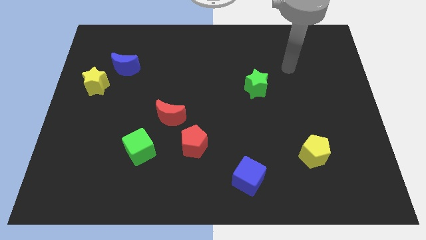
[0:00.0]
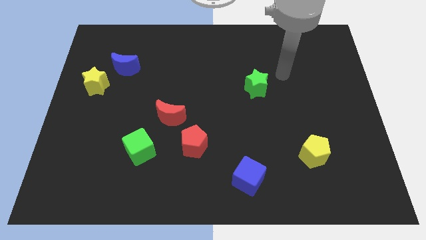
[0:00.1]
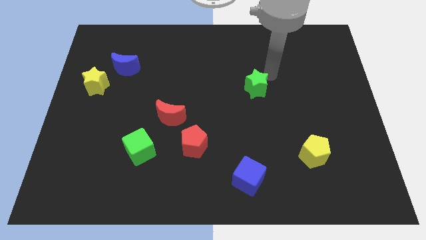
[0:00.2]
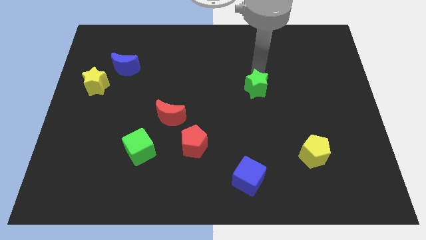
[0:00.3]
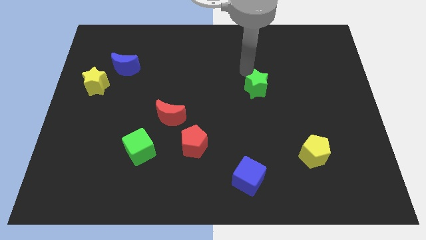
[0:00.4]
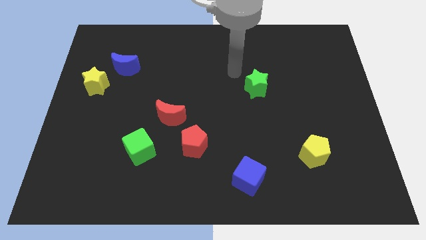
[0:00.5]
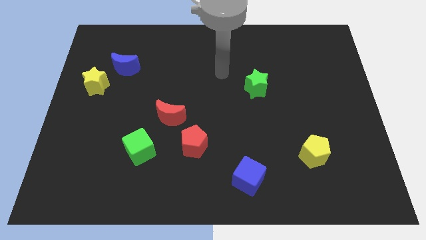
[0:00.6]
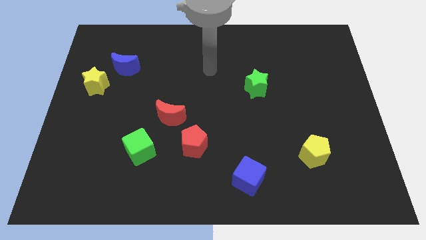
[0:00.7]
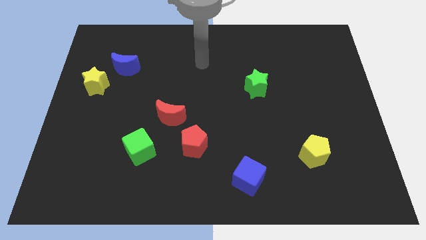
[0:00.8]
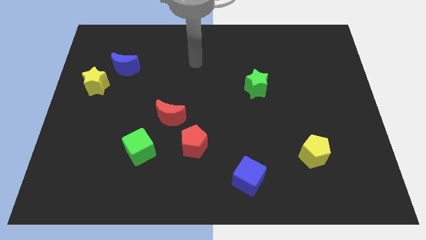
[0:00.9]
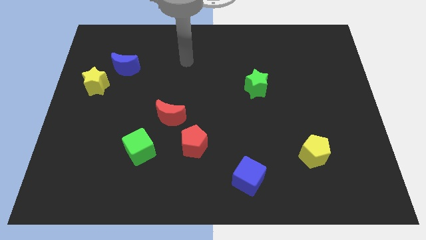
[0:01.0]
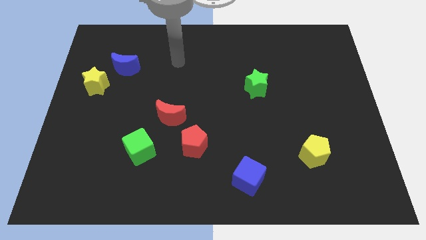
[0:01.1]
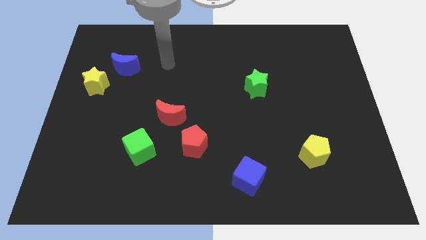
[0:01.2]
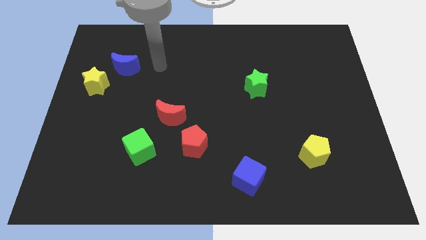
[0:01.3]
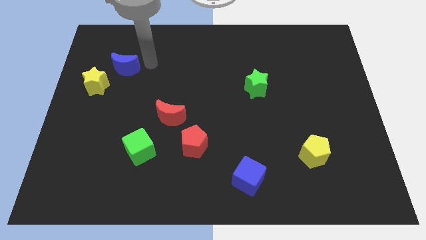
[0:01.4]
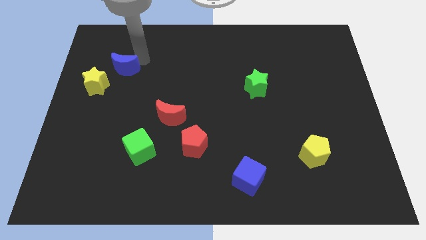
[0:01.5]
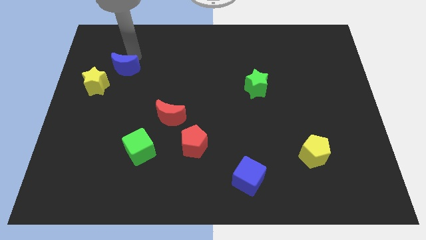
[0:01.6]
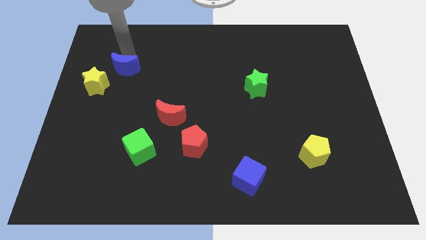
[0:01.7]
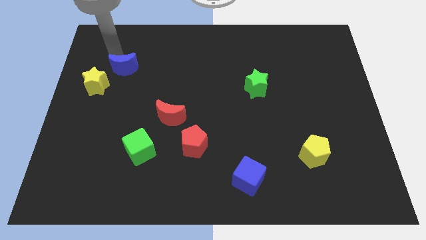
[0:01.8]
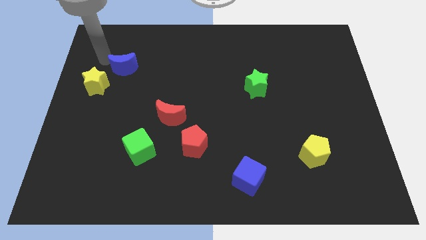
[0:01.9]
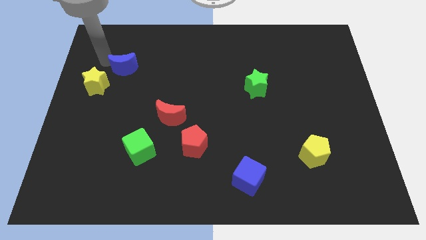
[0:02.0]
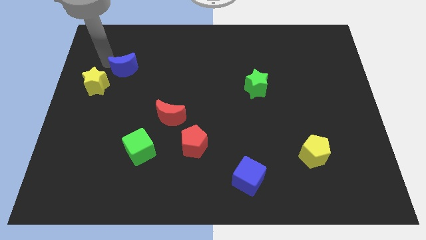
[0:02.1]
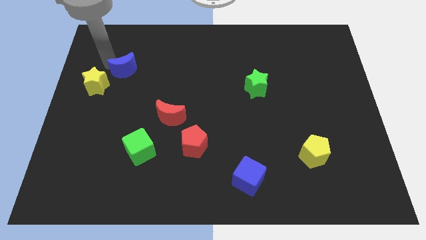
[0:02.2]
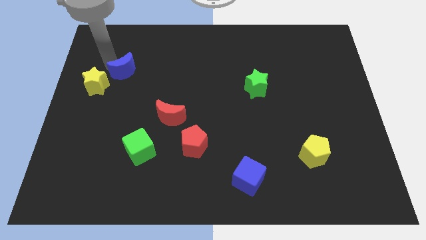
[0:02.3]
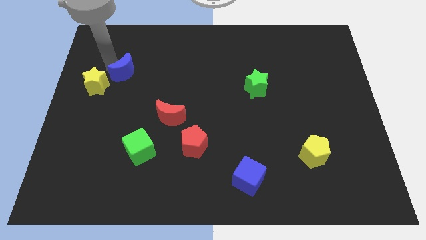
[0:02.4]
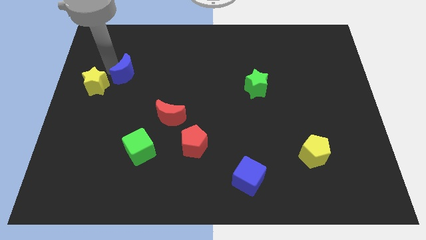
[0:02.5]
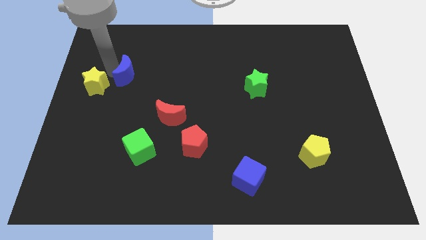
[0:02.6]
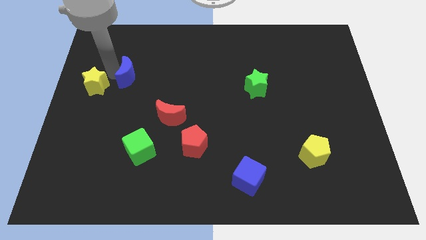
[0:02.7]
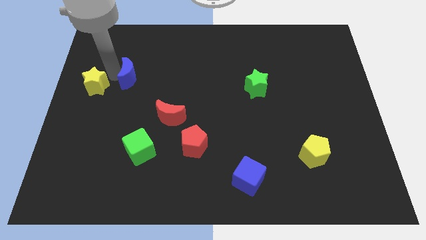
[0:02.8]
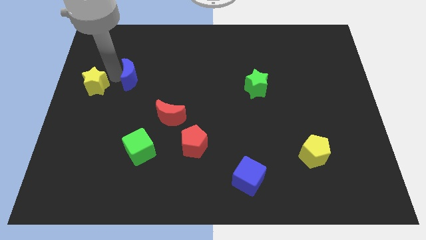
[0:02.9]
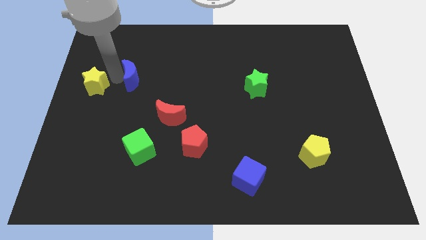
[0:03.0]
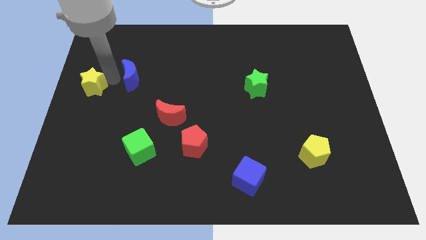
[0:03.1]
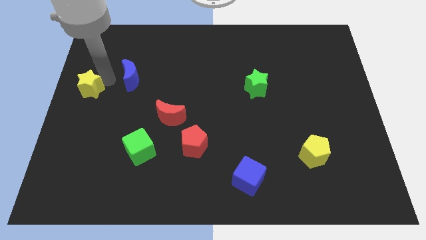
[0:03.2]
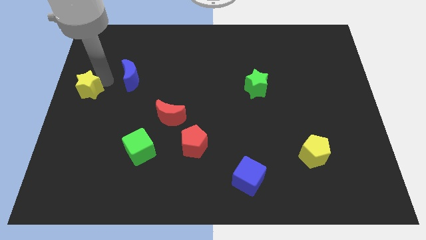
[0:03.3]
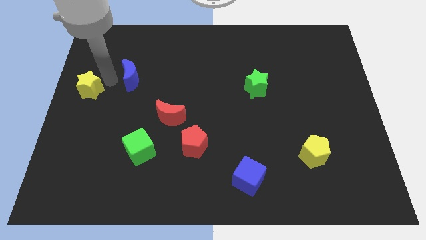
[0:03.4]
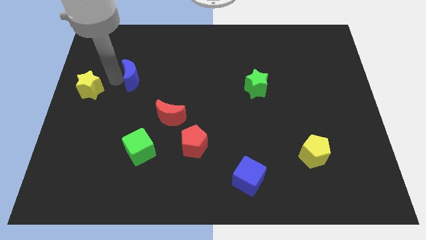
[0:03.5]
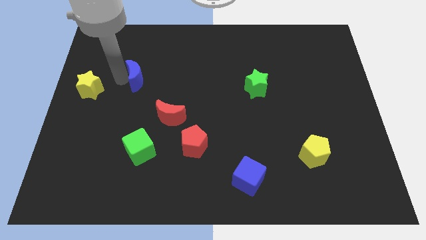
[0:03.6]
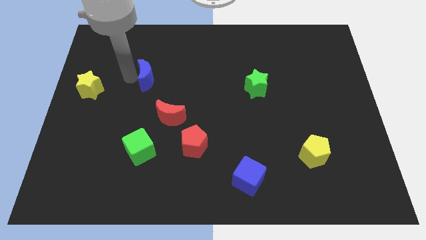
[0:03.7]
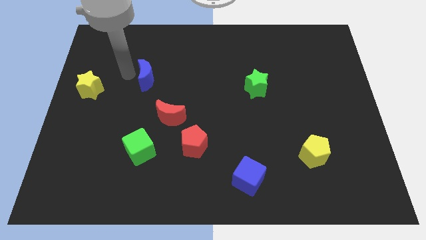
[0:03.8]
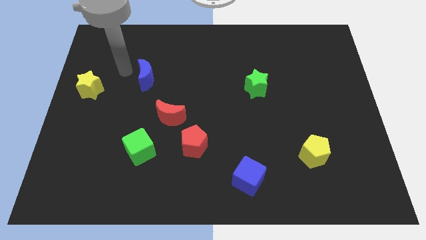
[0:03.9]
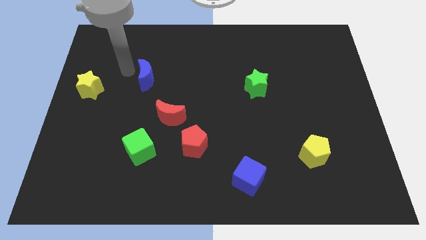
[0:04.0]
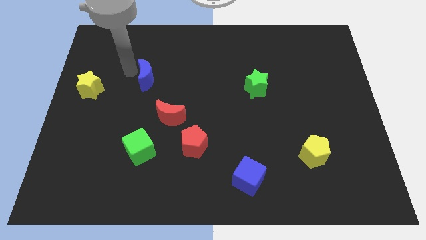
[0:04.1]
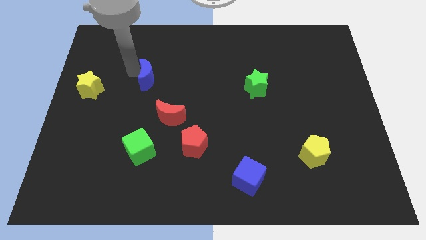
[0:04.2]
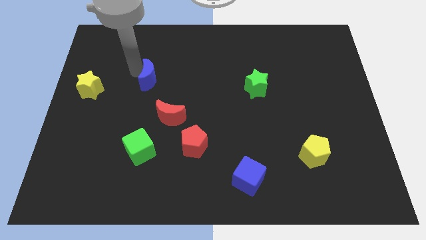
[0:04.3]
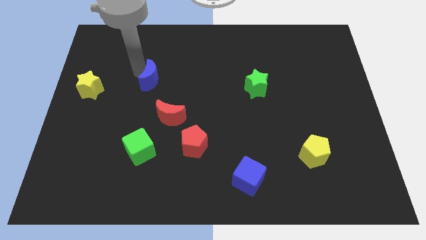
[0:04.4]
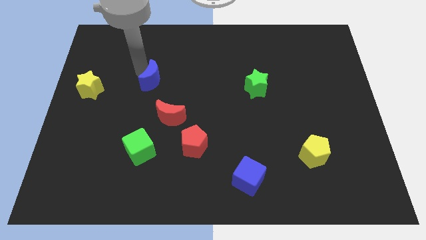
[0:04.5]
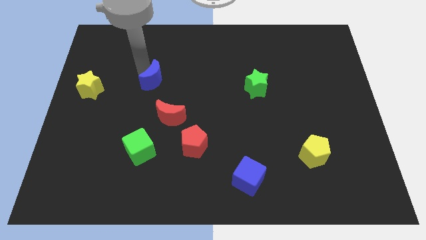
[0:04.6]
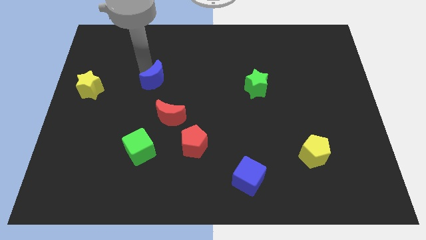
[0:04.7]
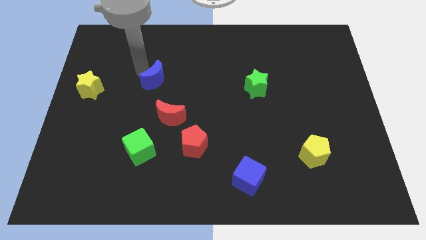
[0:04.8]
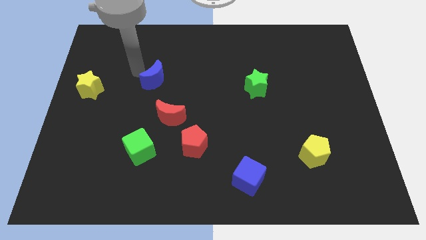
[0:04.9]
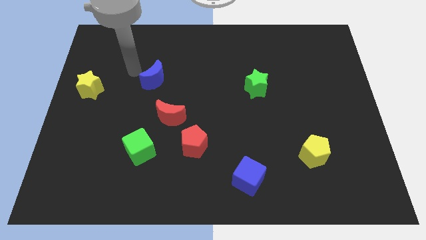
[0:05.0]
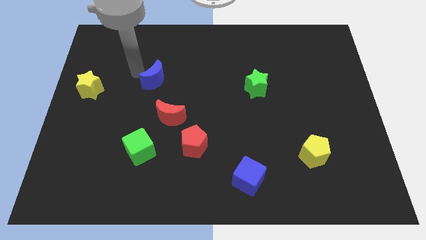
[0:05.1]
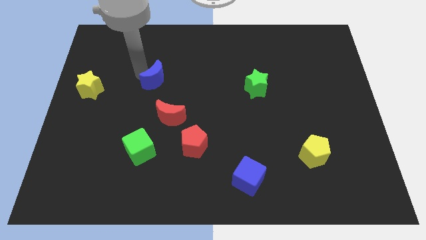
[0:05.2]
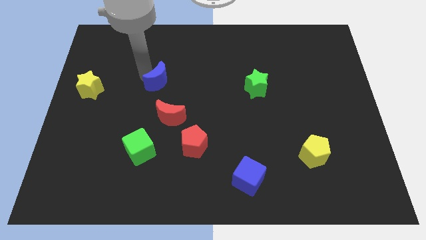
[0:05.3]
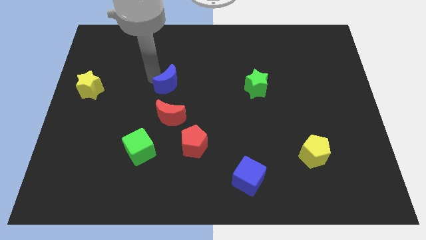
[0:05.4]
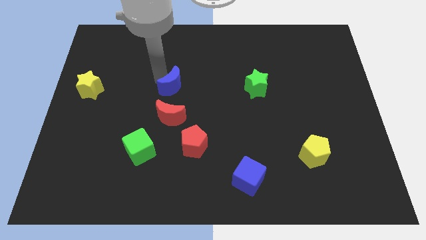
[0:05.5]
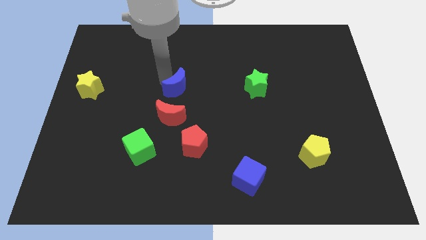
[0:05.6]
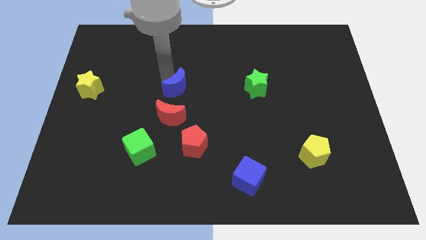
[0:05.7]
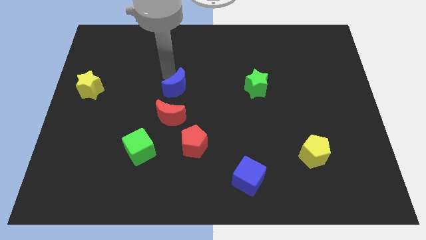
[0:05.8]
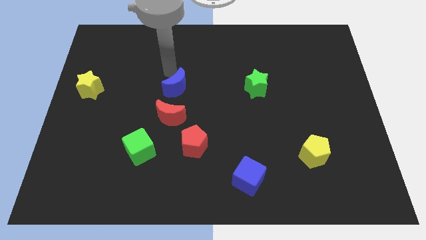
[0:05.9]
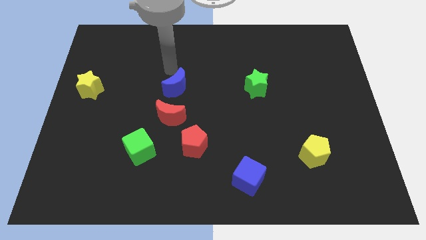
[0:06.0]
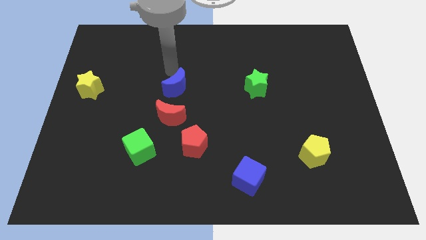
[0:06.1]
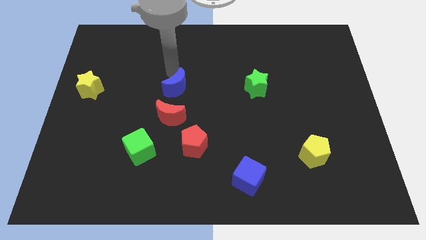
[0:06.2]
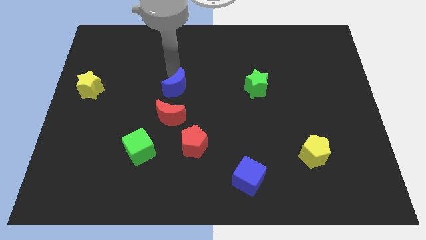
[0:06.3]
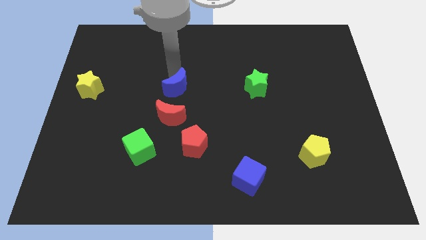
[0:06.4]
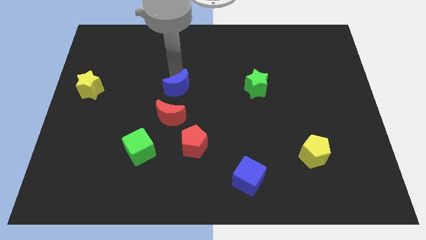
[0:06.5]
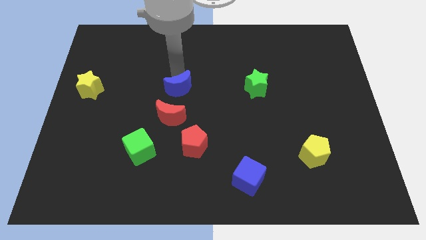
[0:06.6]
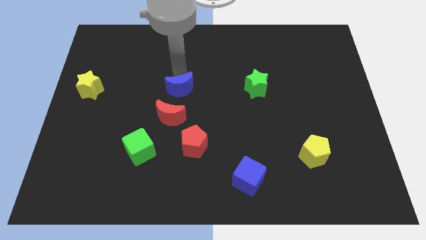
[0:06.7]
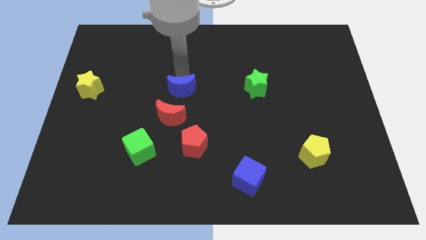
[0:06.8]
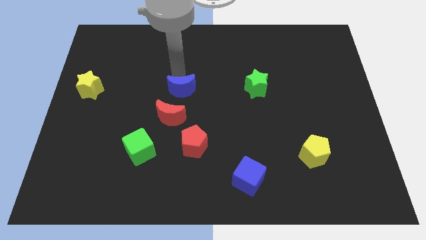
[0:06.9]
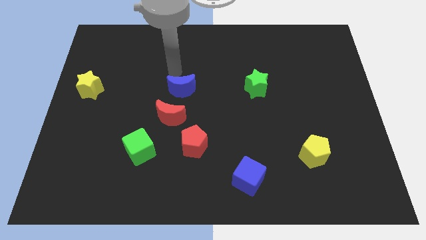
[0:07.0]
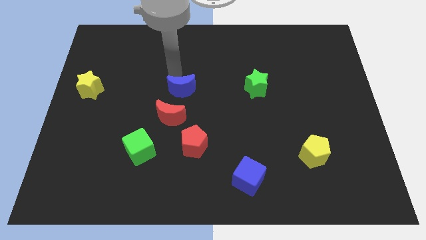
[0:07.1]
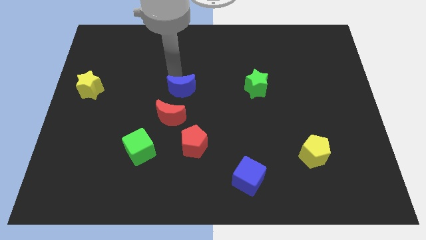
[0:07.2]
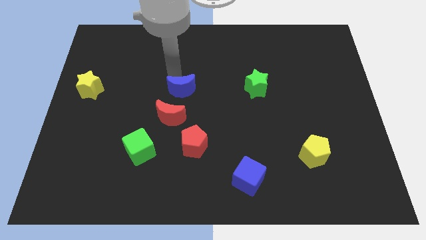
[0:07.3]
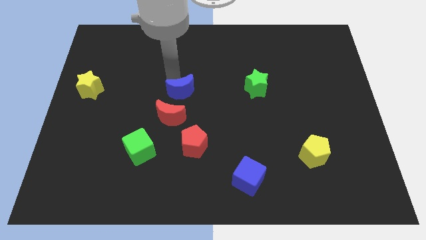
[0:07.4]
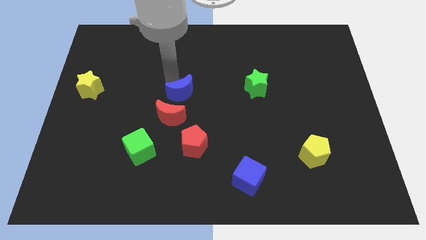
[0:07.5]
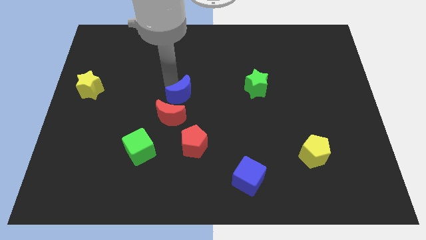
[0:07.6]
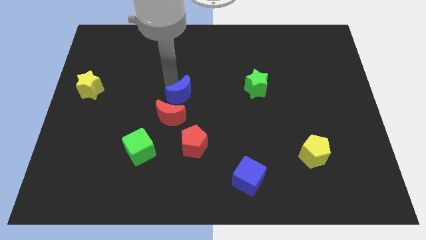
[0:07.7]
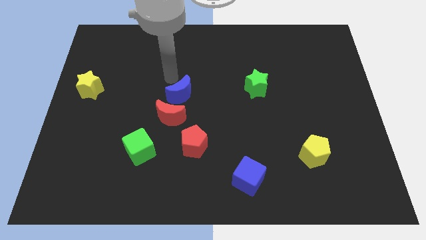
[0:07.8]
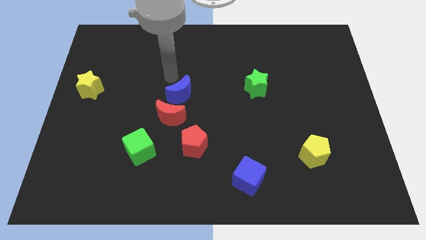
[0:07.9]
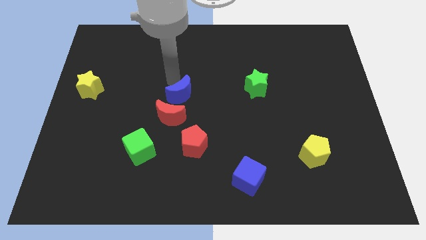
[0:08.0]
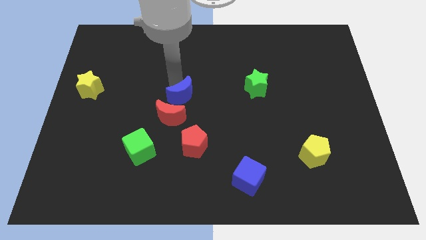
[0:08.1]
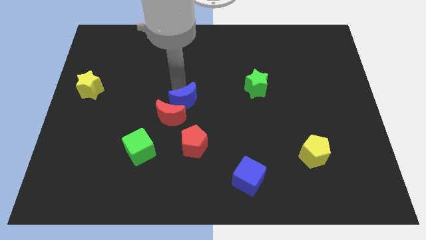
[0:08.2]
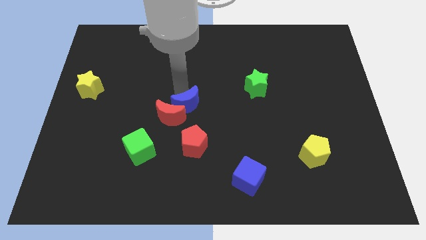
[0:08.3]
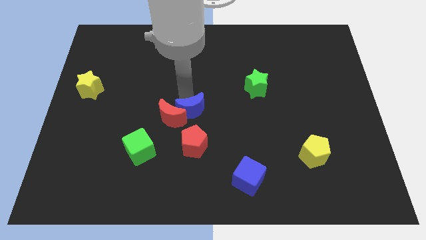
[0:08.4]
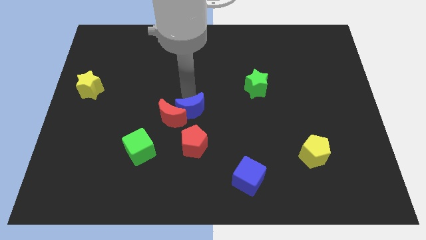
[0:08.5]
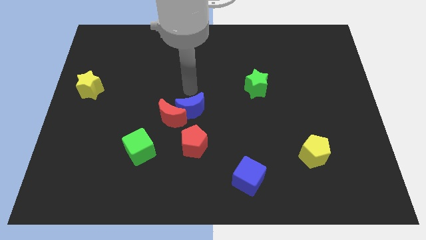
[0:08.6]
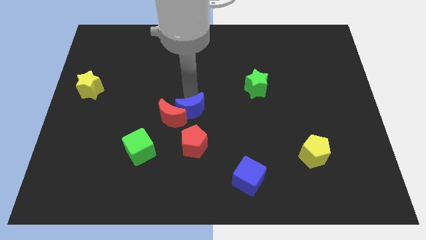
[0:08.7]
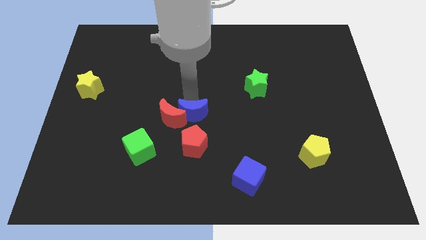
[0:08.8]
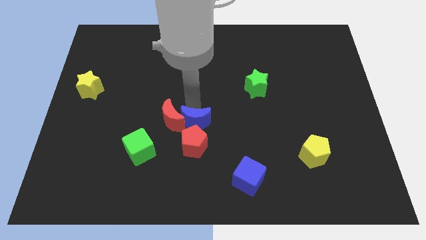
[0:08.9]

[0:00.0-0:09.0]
slide the blue moon next to the red pentagon
